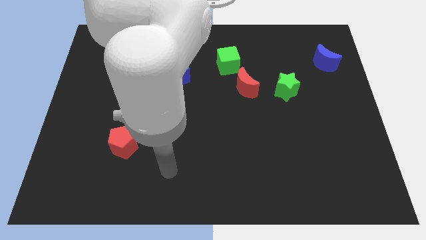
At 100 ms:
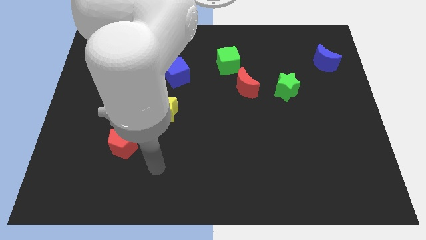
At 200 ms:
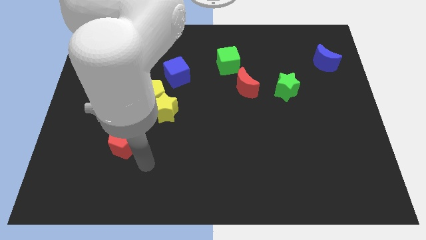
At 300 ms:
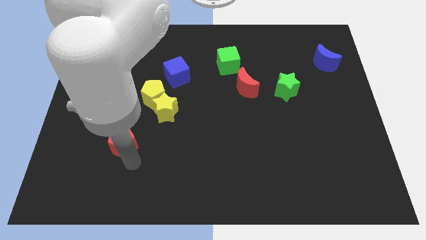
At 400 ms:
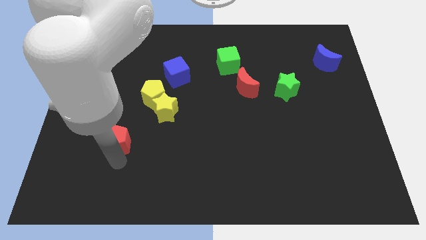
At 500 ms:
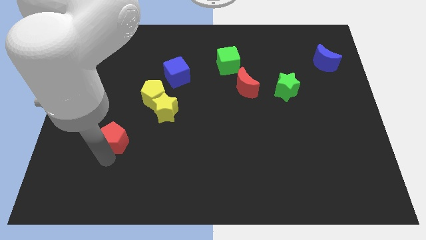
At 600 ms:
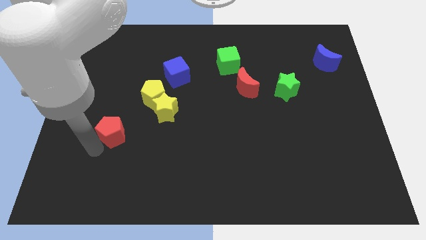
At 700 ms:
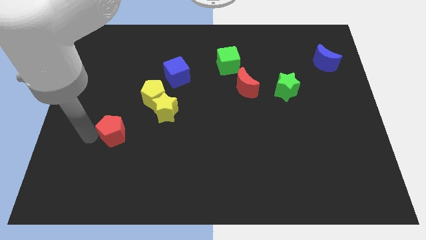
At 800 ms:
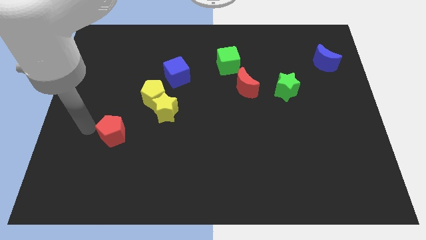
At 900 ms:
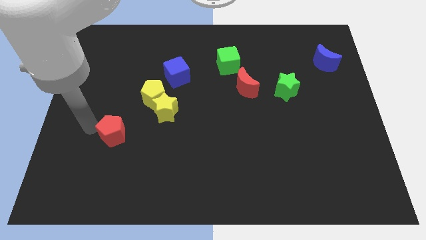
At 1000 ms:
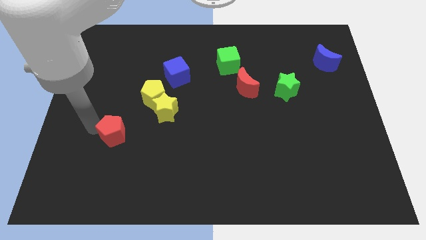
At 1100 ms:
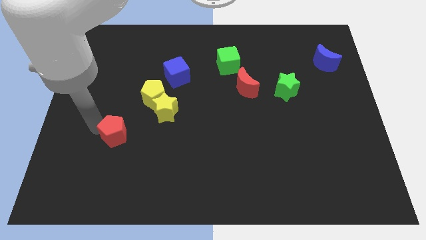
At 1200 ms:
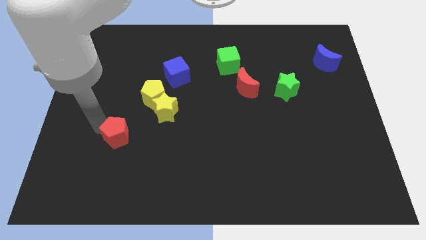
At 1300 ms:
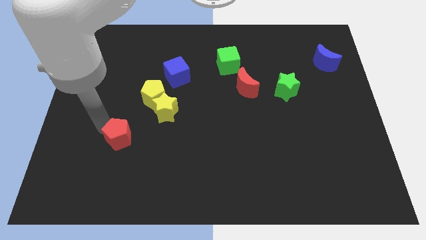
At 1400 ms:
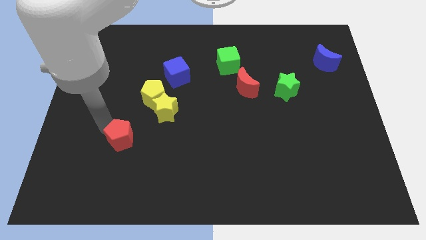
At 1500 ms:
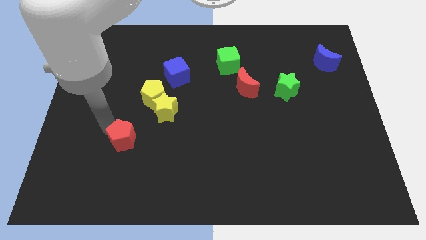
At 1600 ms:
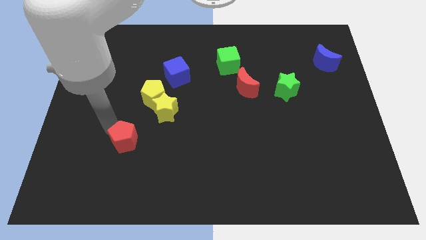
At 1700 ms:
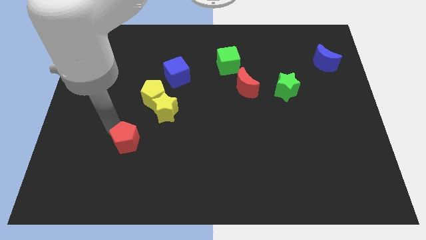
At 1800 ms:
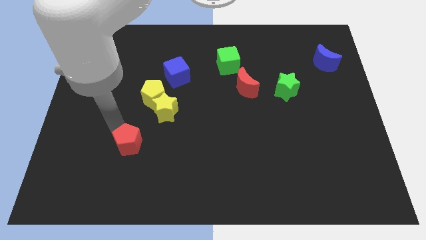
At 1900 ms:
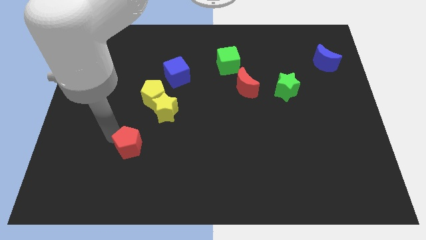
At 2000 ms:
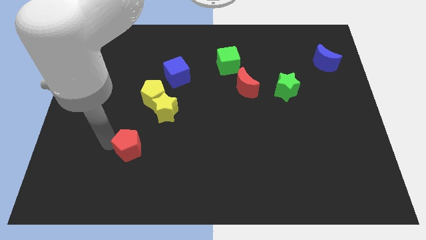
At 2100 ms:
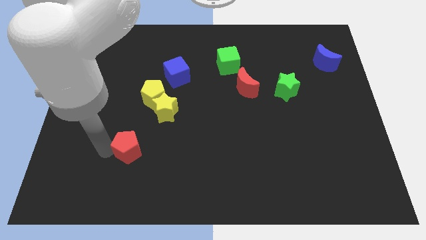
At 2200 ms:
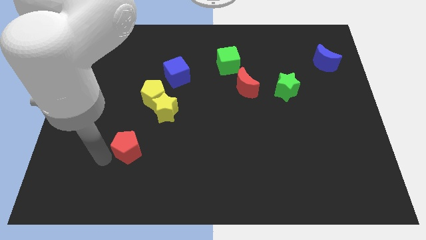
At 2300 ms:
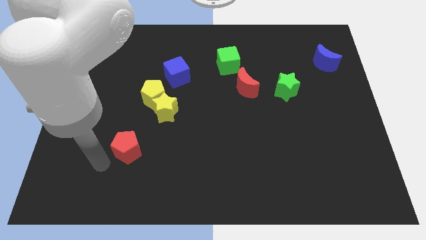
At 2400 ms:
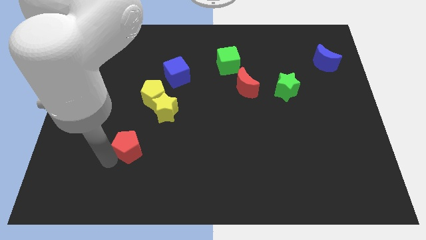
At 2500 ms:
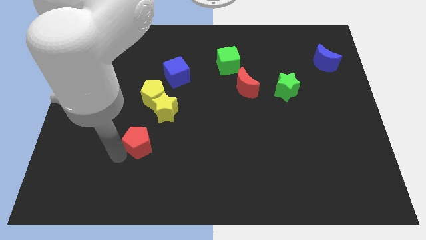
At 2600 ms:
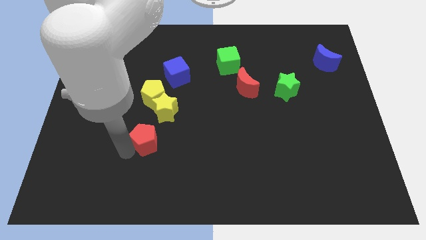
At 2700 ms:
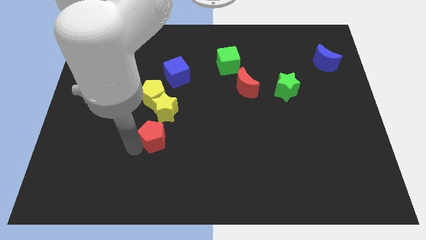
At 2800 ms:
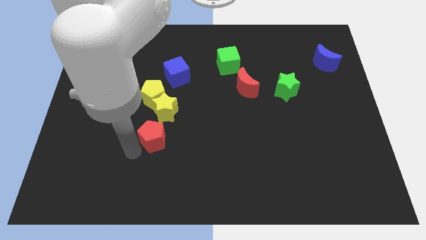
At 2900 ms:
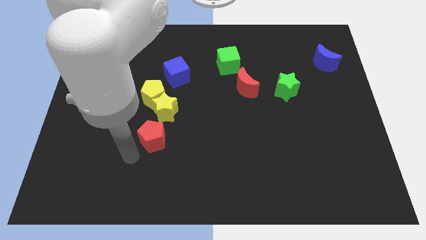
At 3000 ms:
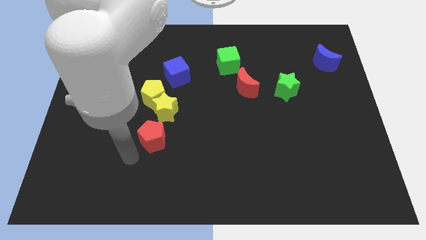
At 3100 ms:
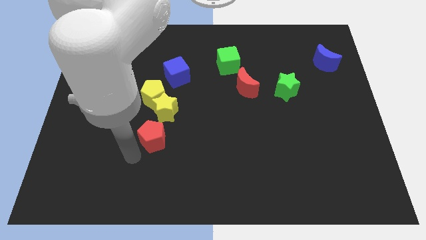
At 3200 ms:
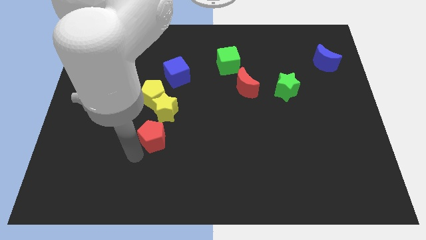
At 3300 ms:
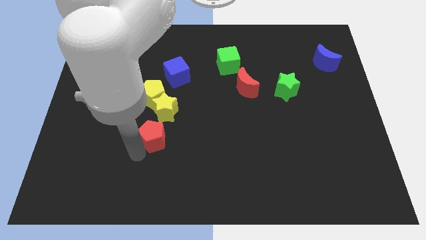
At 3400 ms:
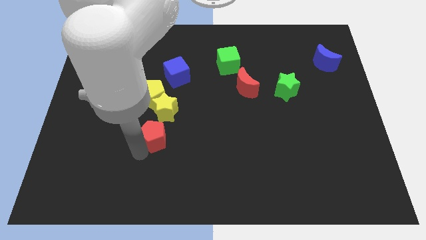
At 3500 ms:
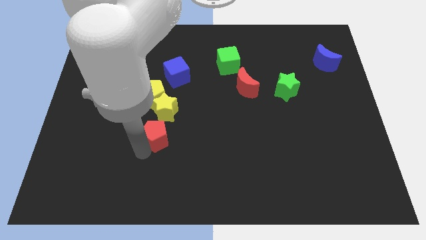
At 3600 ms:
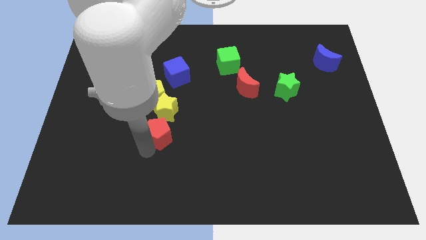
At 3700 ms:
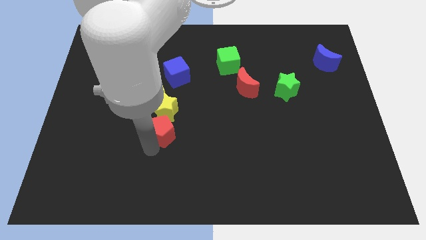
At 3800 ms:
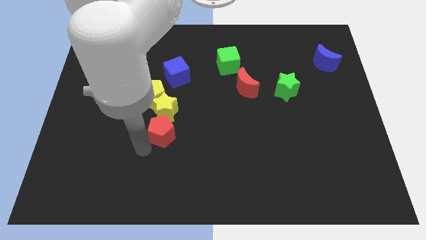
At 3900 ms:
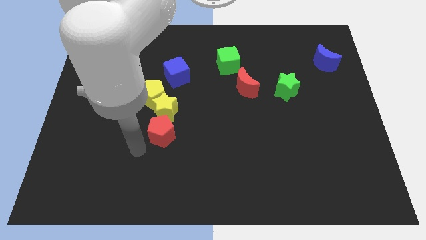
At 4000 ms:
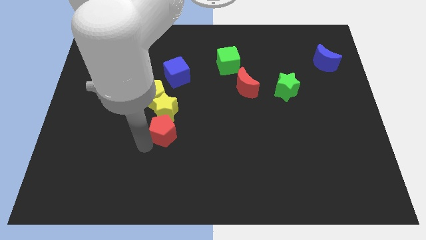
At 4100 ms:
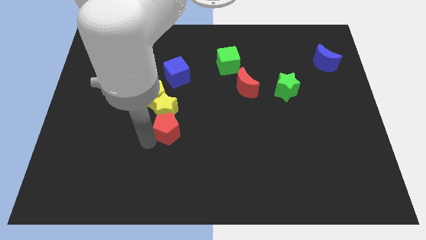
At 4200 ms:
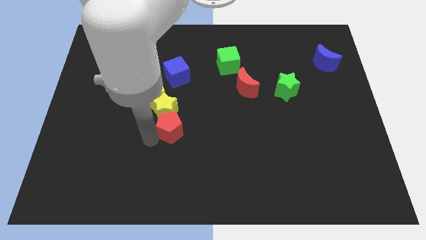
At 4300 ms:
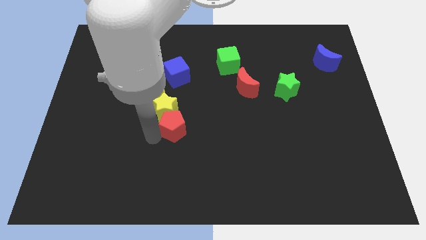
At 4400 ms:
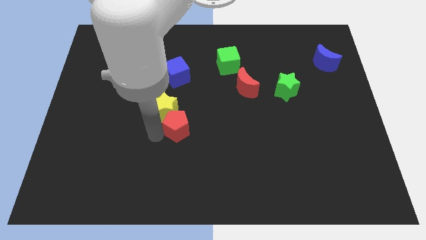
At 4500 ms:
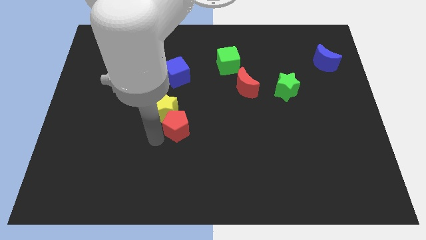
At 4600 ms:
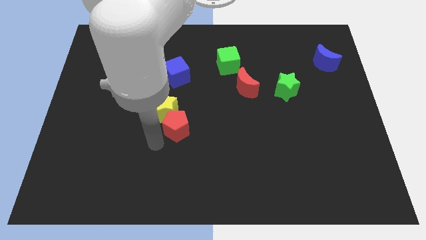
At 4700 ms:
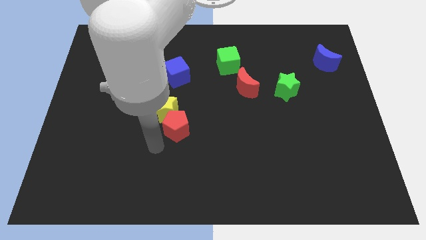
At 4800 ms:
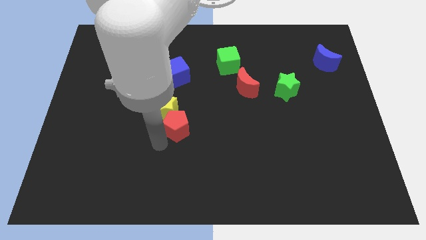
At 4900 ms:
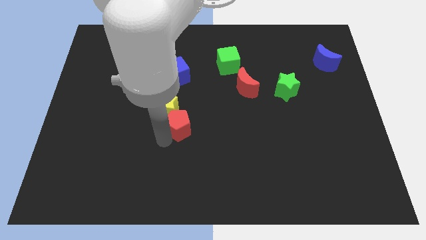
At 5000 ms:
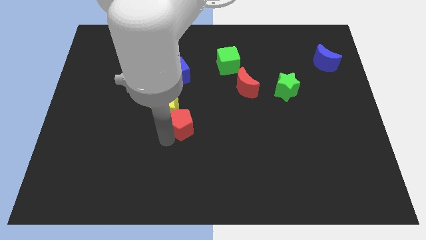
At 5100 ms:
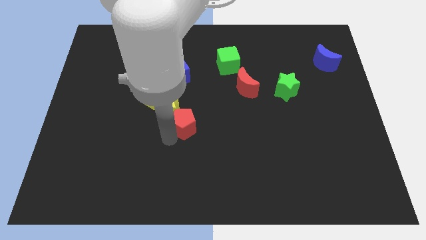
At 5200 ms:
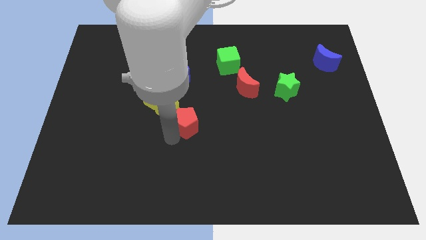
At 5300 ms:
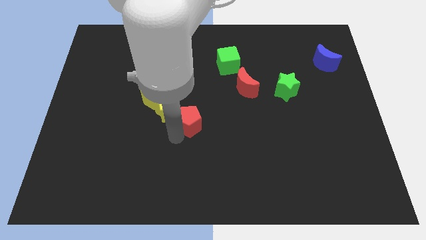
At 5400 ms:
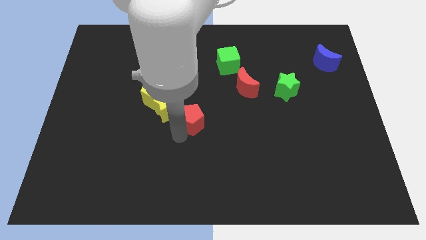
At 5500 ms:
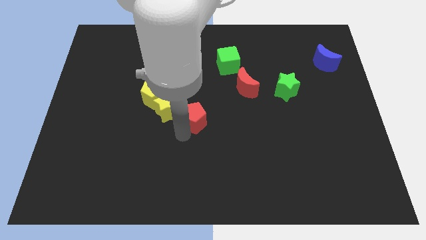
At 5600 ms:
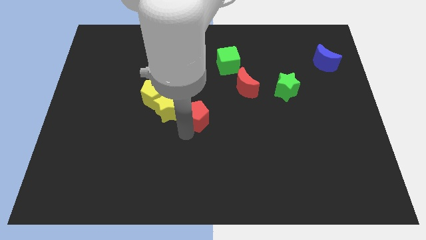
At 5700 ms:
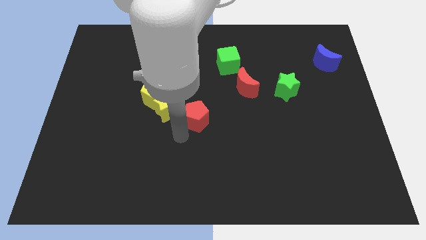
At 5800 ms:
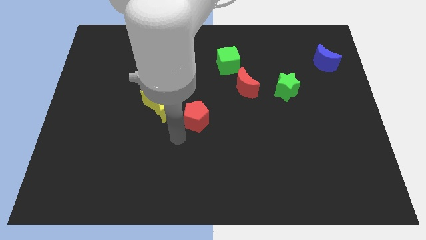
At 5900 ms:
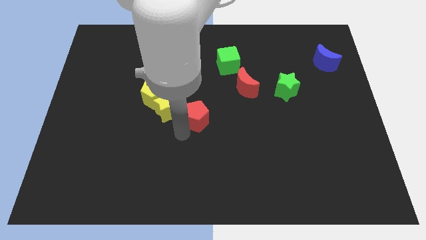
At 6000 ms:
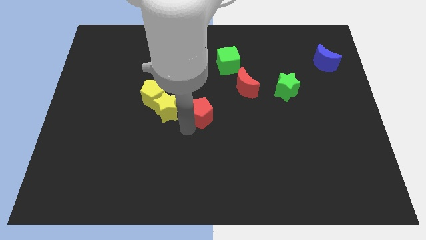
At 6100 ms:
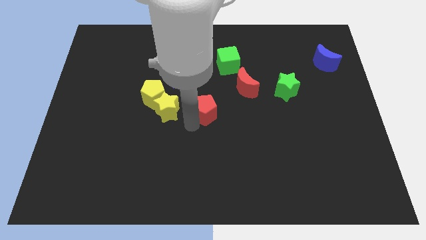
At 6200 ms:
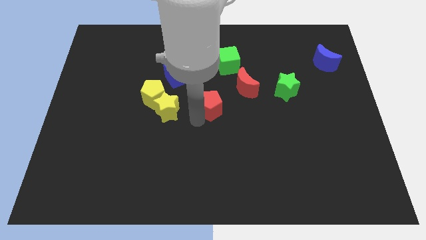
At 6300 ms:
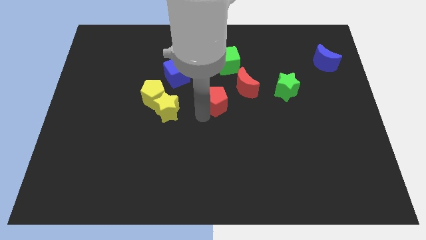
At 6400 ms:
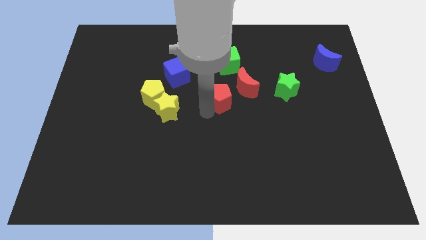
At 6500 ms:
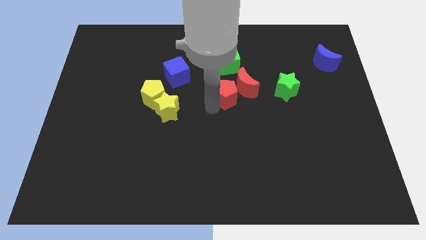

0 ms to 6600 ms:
move the red pentagon towards the red moon
